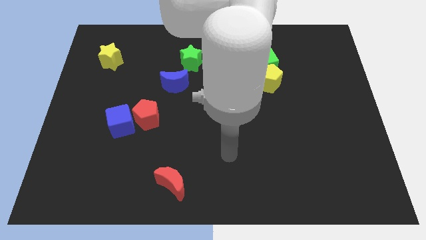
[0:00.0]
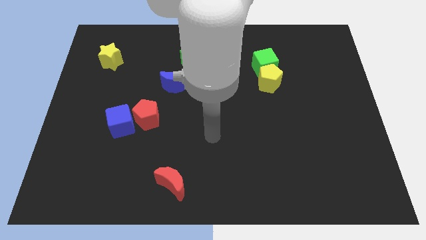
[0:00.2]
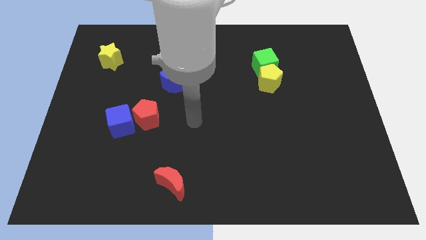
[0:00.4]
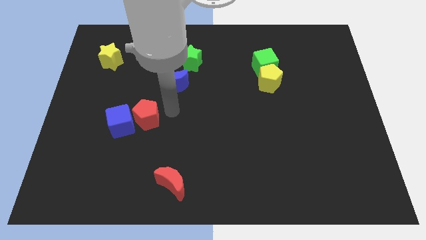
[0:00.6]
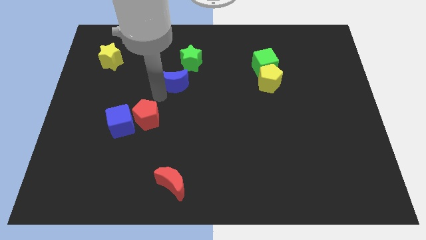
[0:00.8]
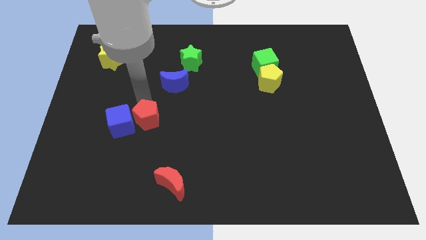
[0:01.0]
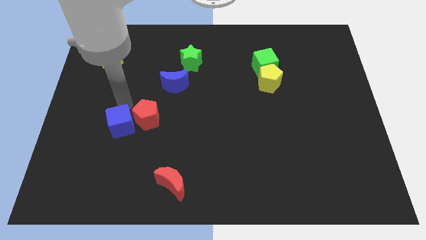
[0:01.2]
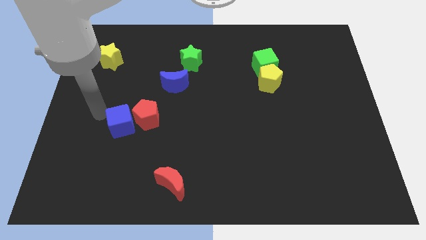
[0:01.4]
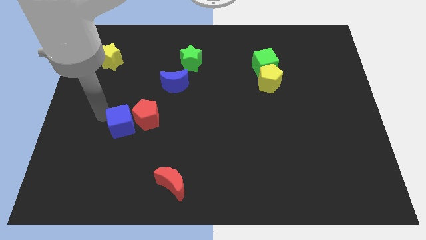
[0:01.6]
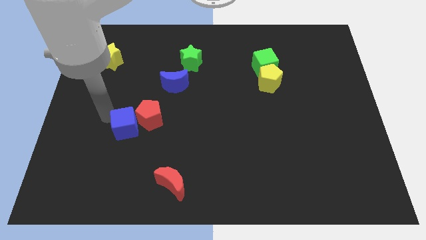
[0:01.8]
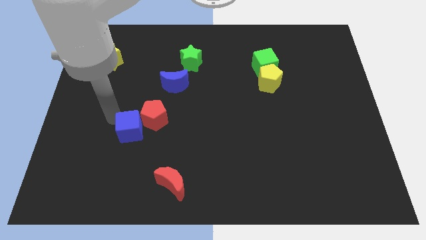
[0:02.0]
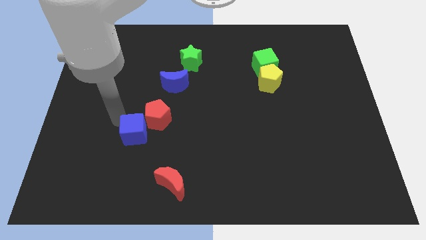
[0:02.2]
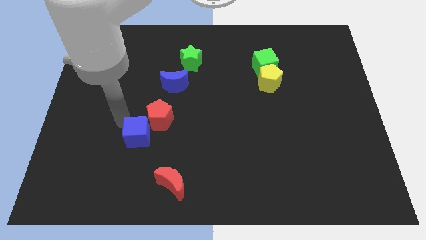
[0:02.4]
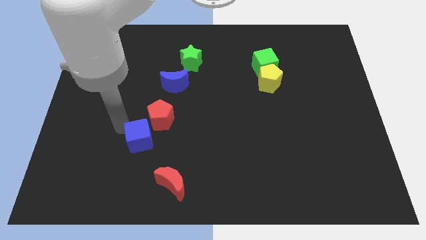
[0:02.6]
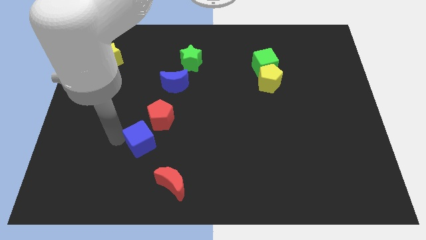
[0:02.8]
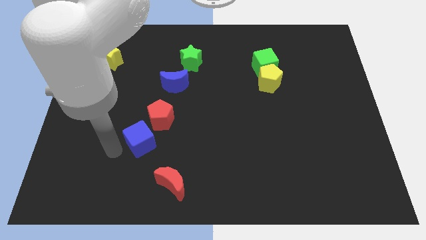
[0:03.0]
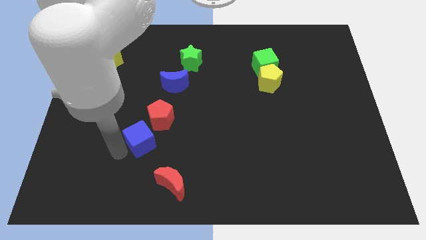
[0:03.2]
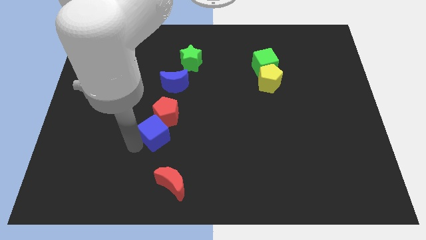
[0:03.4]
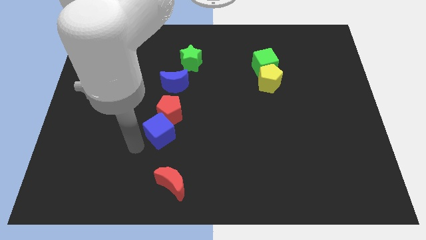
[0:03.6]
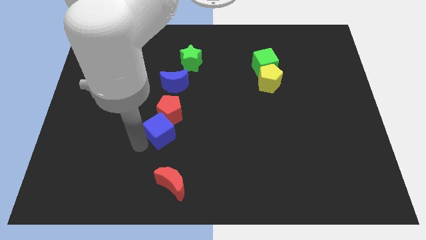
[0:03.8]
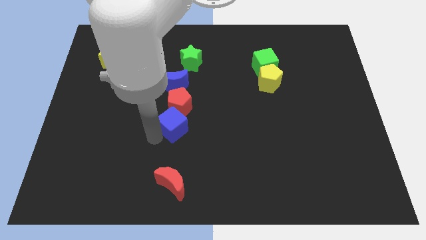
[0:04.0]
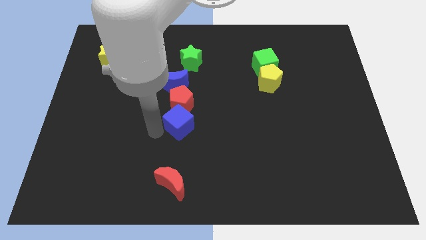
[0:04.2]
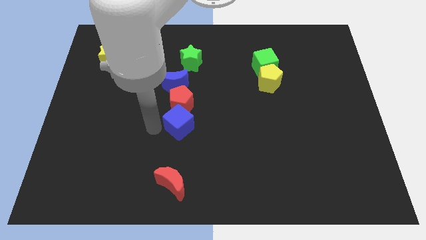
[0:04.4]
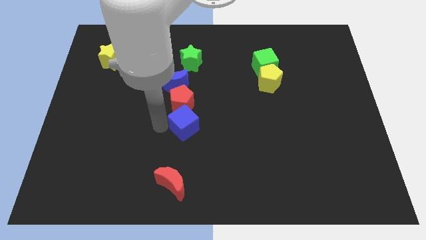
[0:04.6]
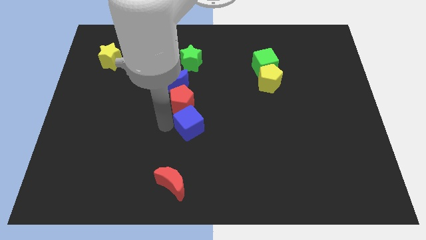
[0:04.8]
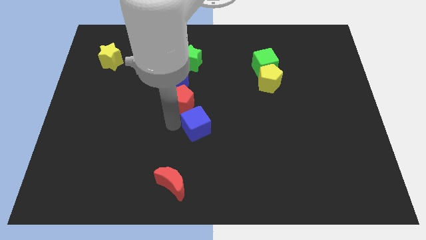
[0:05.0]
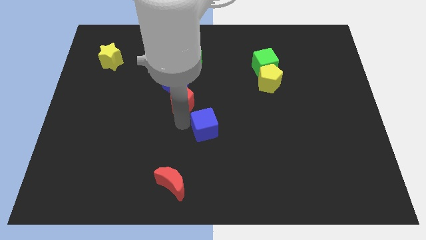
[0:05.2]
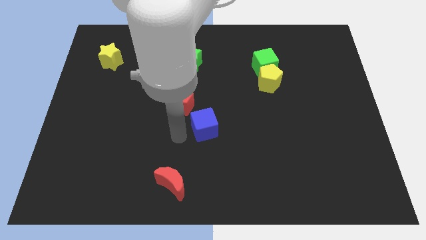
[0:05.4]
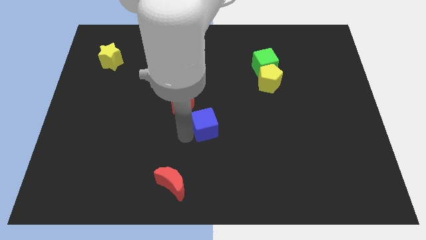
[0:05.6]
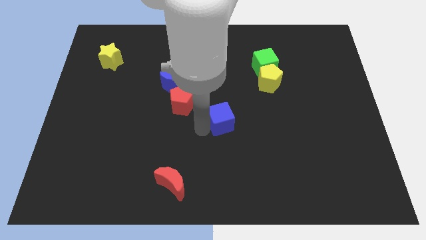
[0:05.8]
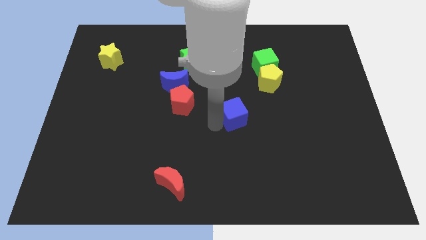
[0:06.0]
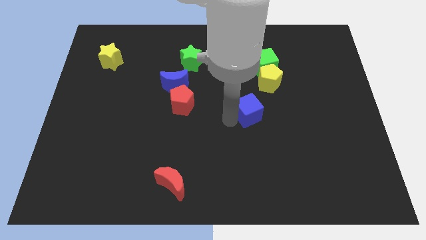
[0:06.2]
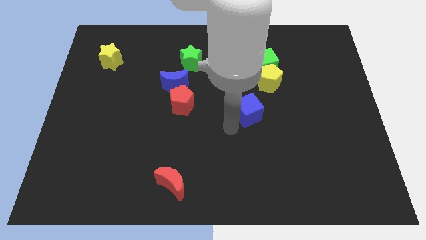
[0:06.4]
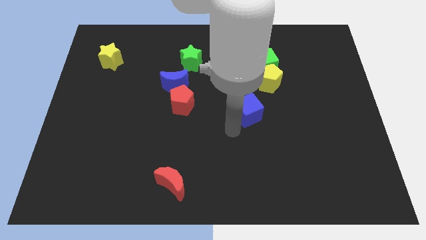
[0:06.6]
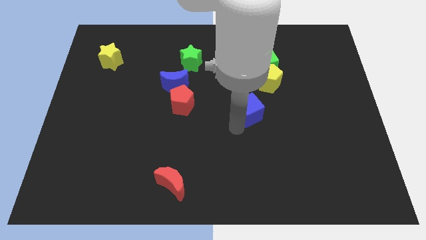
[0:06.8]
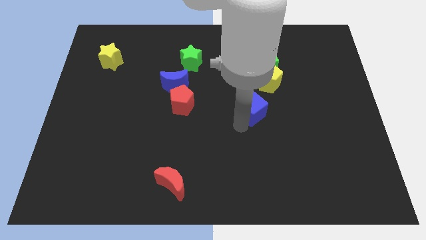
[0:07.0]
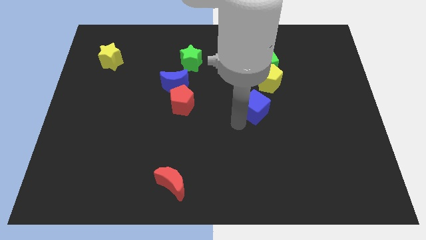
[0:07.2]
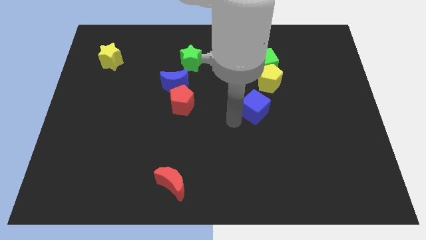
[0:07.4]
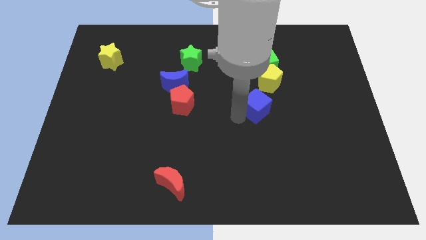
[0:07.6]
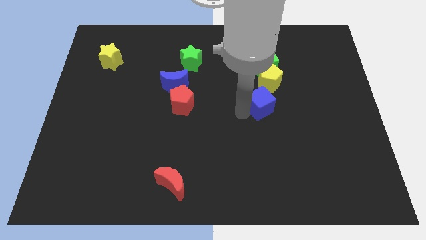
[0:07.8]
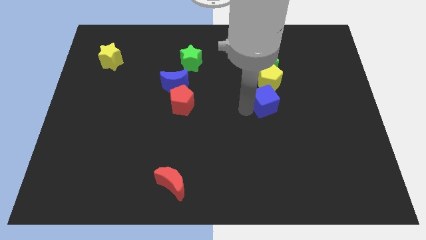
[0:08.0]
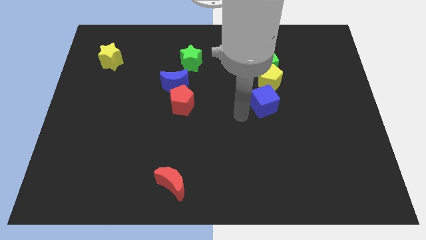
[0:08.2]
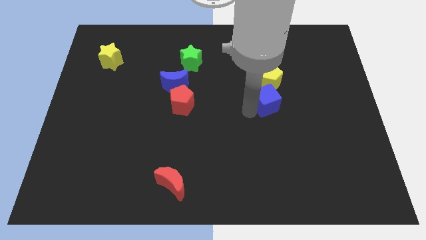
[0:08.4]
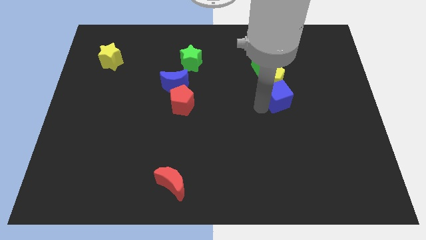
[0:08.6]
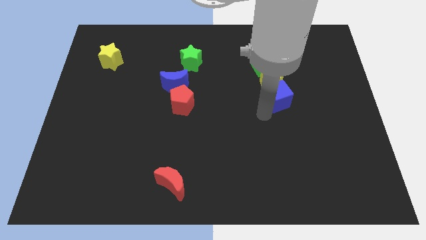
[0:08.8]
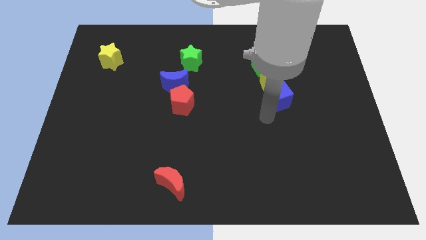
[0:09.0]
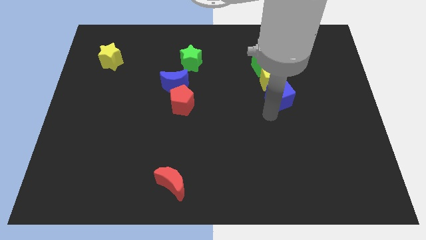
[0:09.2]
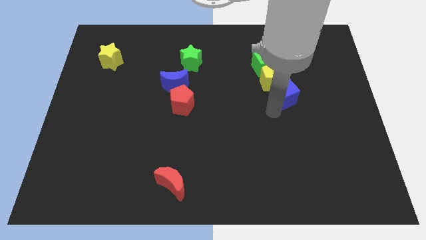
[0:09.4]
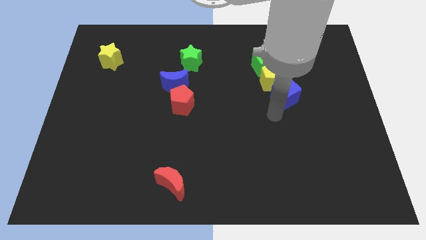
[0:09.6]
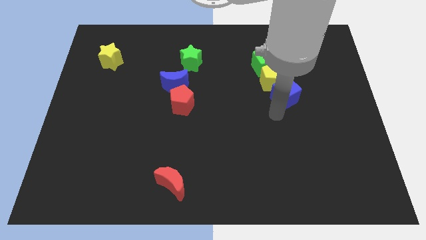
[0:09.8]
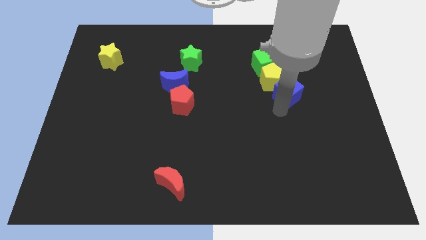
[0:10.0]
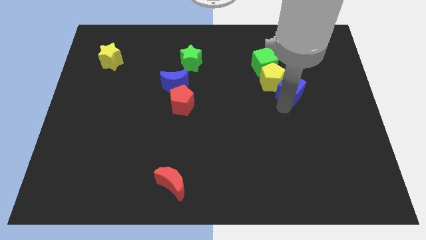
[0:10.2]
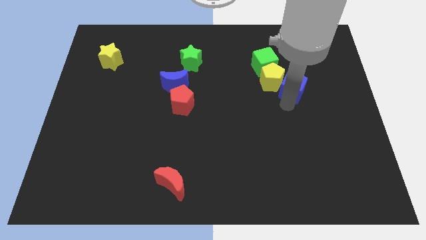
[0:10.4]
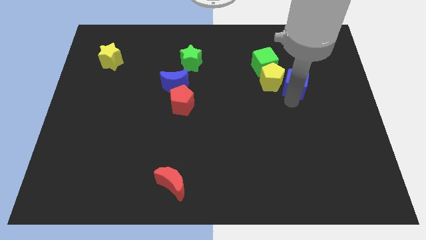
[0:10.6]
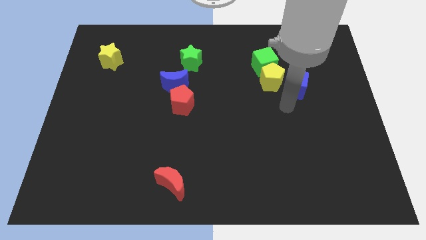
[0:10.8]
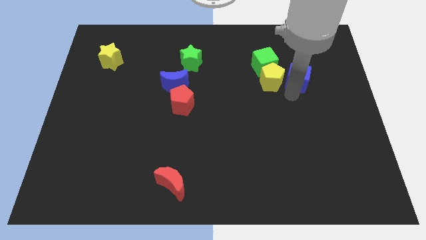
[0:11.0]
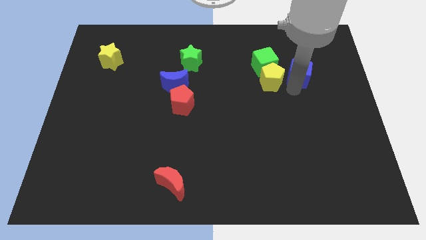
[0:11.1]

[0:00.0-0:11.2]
slide the blue cube just right of the green cube

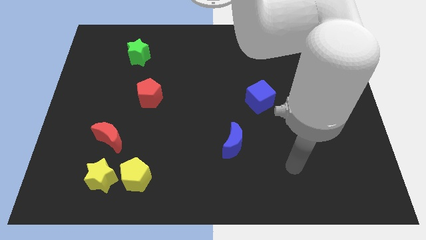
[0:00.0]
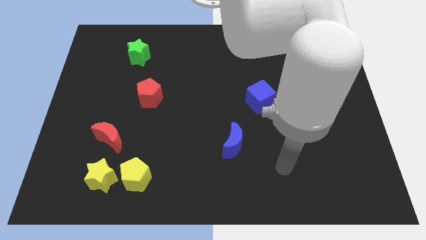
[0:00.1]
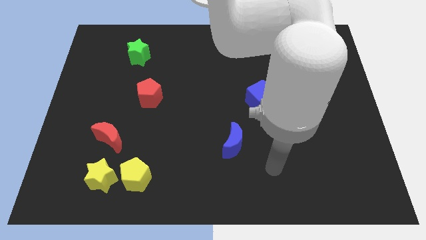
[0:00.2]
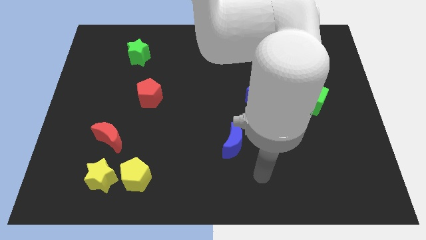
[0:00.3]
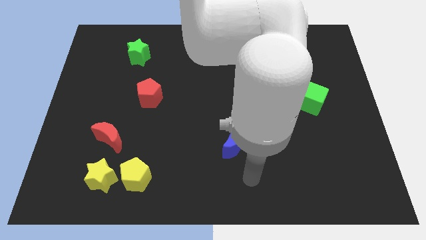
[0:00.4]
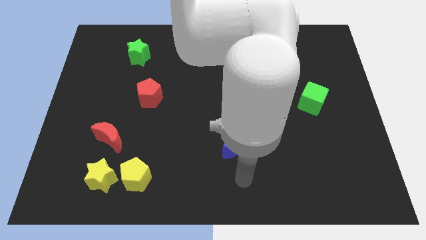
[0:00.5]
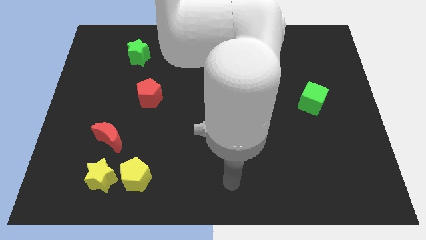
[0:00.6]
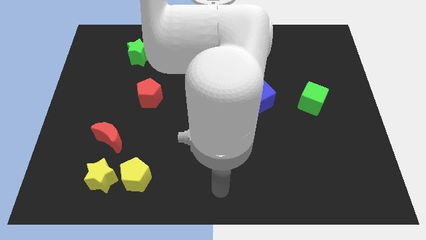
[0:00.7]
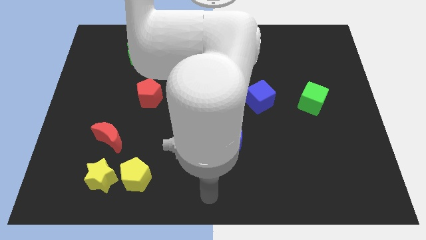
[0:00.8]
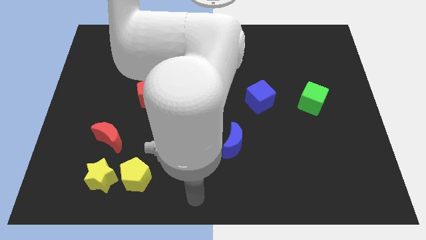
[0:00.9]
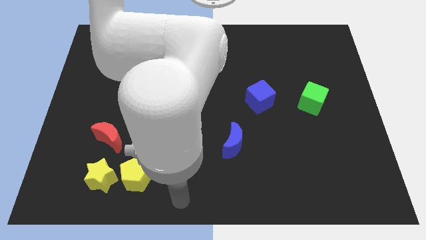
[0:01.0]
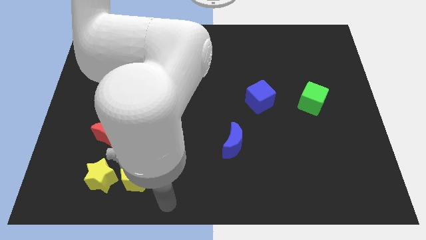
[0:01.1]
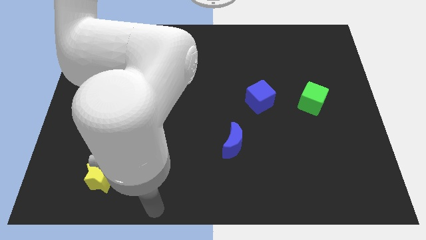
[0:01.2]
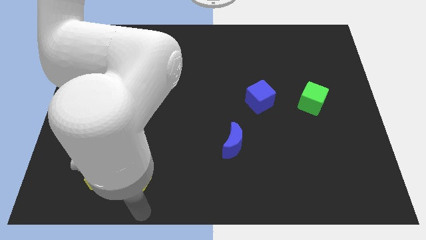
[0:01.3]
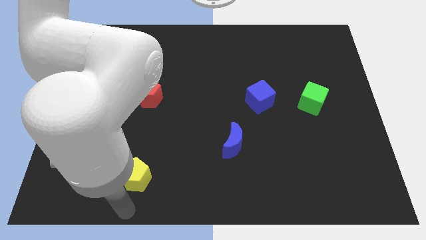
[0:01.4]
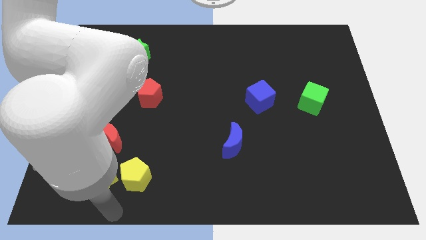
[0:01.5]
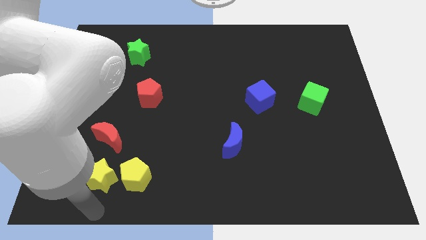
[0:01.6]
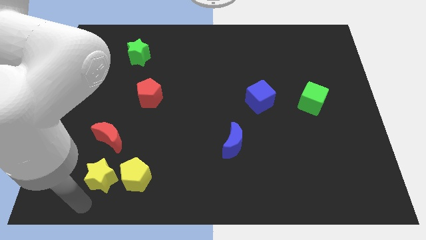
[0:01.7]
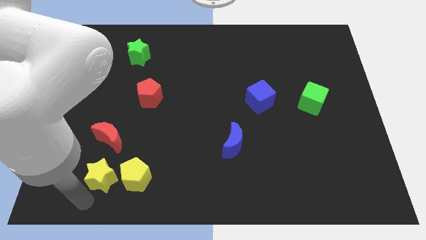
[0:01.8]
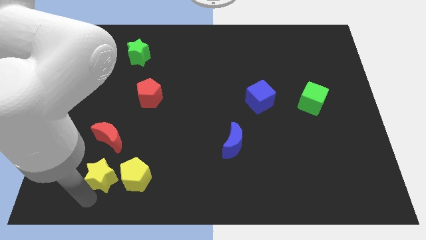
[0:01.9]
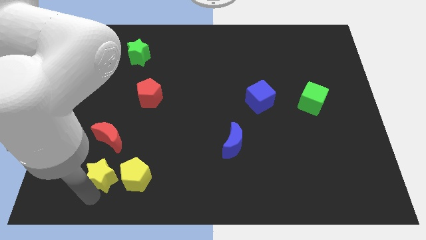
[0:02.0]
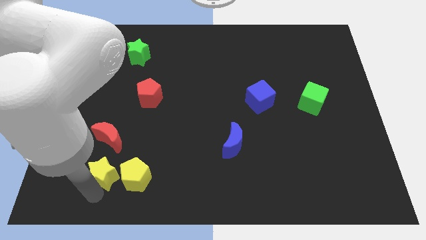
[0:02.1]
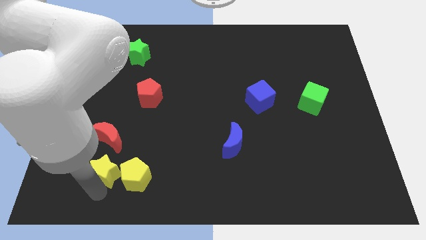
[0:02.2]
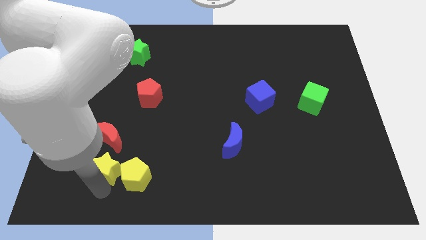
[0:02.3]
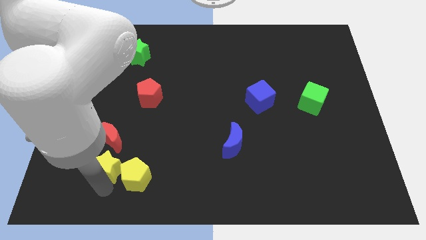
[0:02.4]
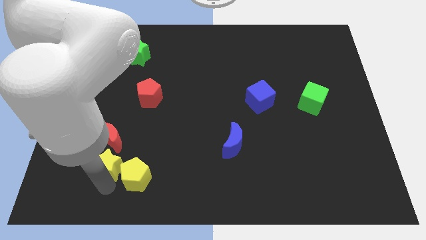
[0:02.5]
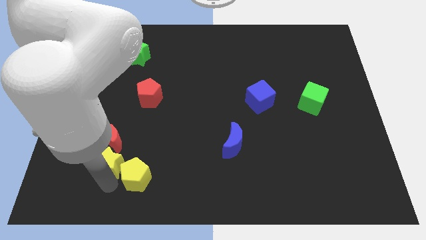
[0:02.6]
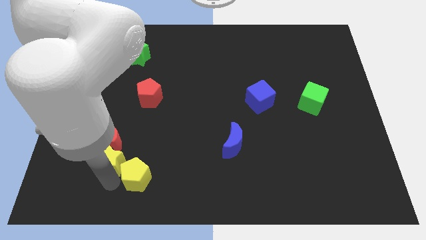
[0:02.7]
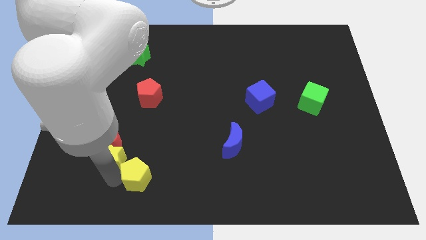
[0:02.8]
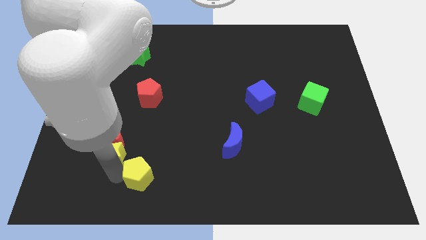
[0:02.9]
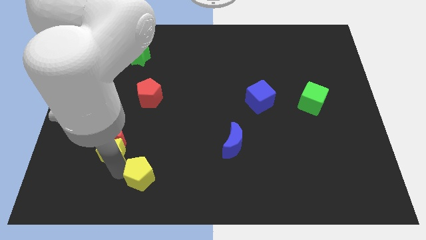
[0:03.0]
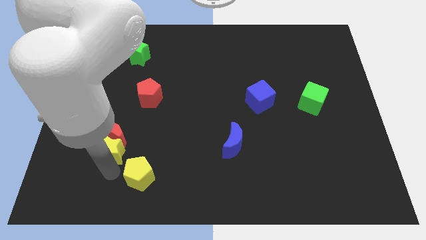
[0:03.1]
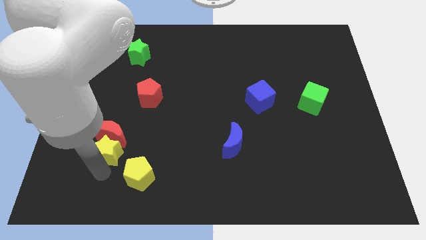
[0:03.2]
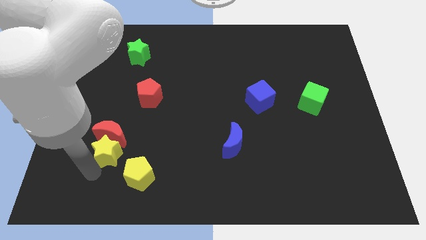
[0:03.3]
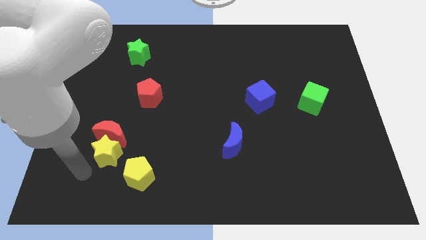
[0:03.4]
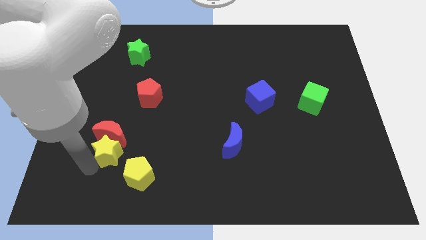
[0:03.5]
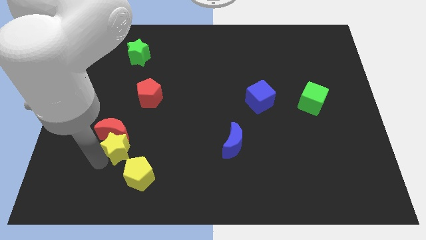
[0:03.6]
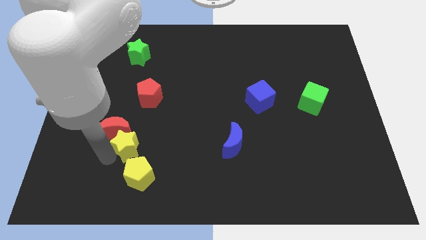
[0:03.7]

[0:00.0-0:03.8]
slide the yellow star below the red pentagon
